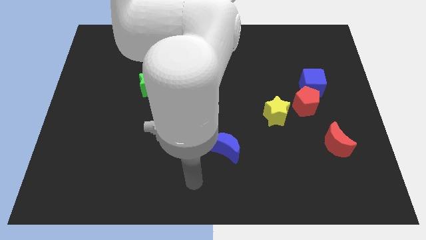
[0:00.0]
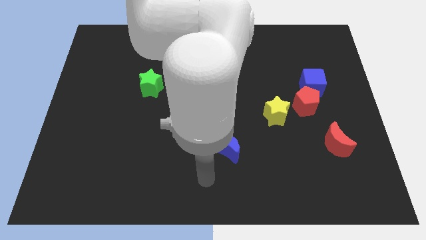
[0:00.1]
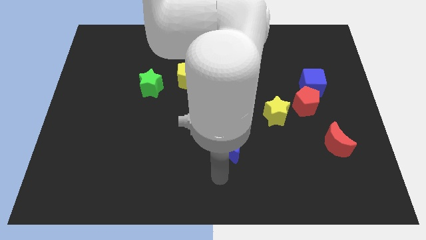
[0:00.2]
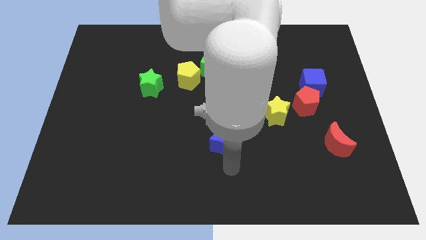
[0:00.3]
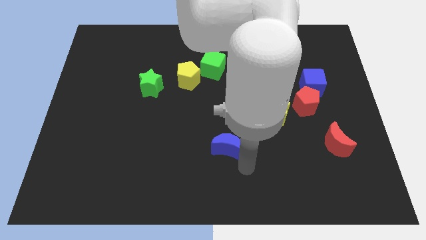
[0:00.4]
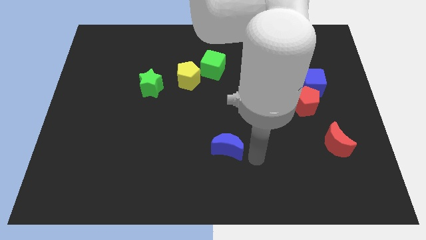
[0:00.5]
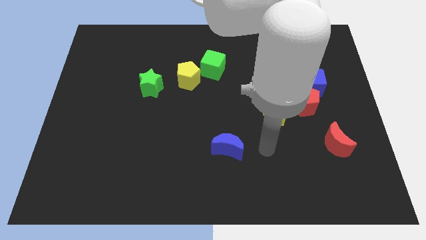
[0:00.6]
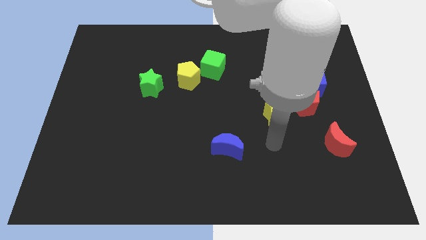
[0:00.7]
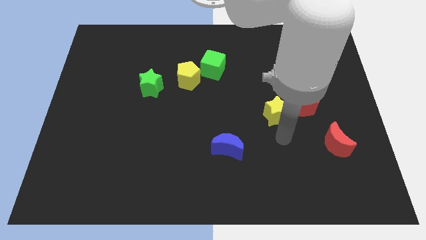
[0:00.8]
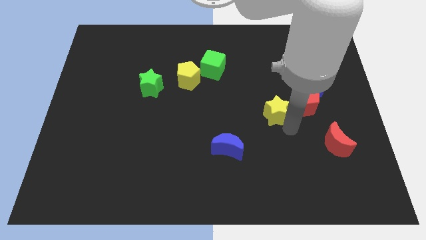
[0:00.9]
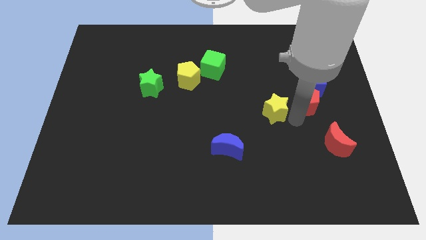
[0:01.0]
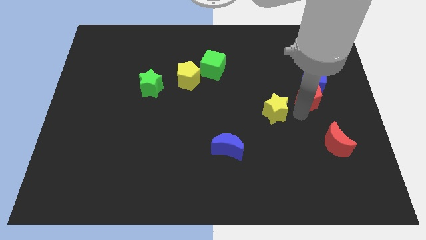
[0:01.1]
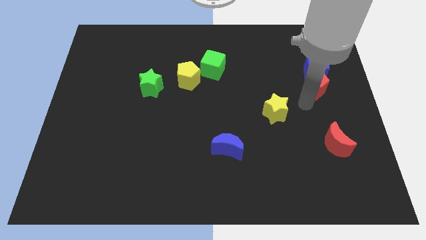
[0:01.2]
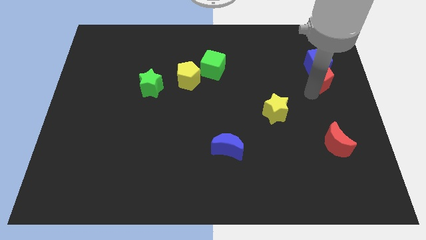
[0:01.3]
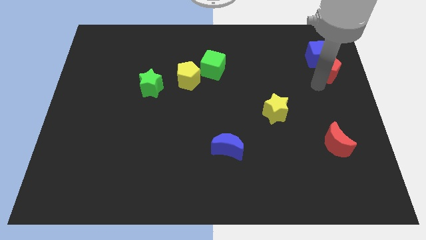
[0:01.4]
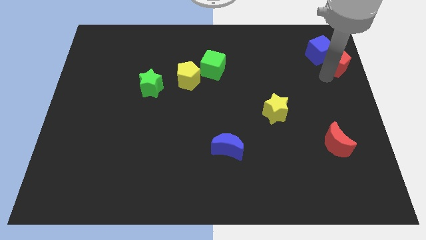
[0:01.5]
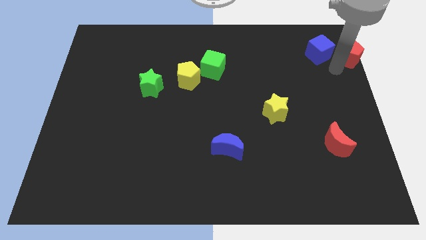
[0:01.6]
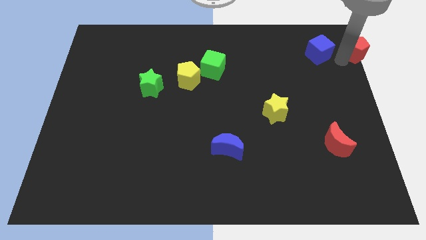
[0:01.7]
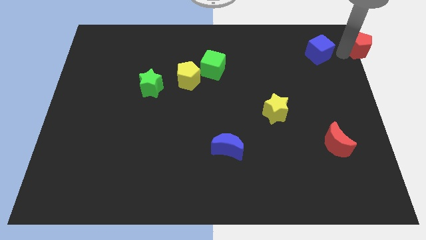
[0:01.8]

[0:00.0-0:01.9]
move the blue cube away from the red pentagon

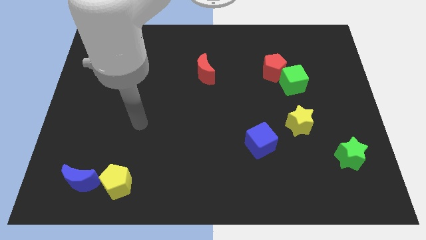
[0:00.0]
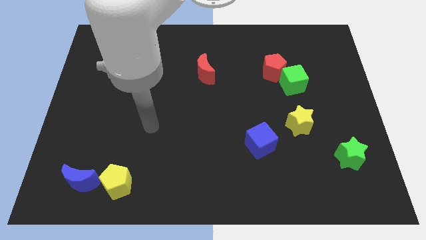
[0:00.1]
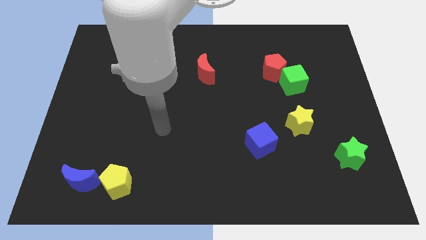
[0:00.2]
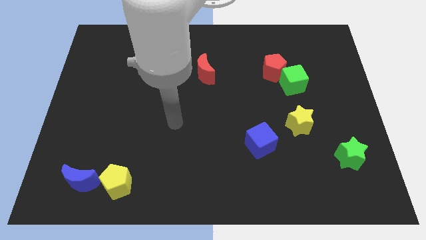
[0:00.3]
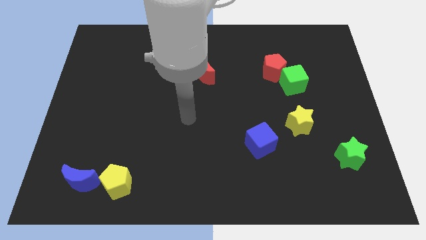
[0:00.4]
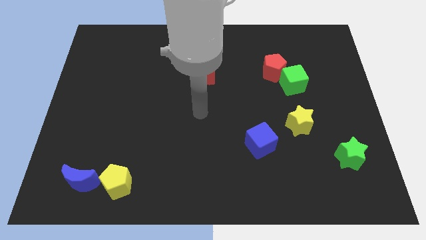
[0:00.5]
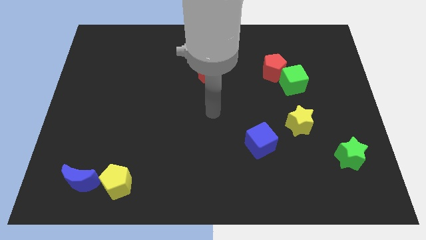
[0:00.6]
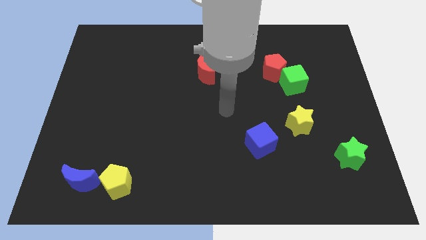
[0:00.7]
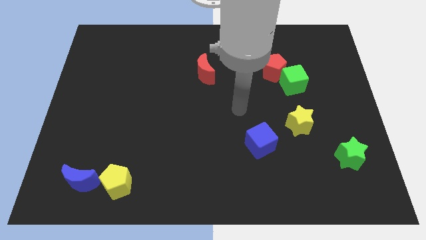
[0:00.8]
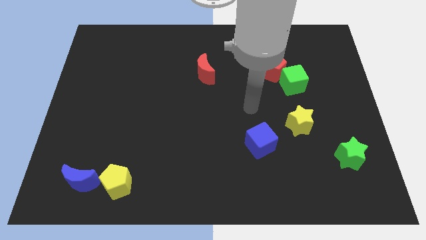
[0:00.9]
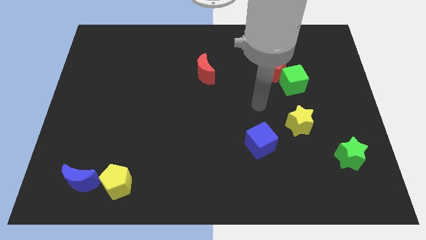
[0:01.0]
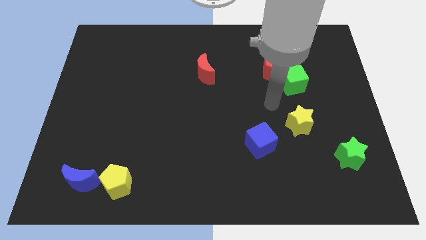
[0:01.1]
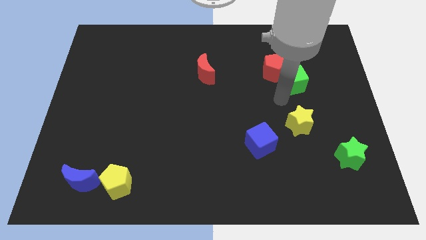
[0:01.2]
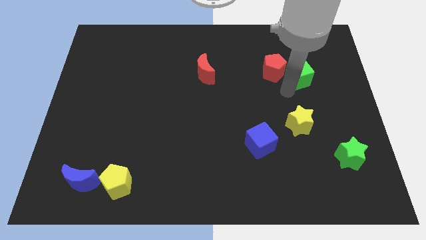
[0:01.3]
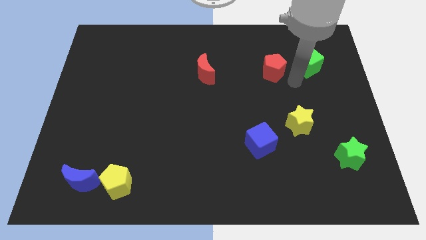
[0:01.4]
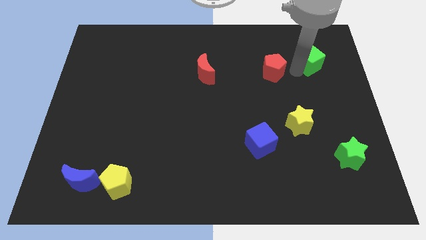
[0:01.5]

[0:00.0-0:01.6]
move the red pentagon away from the green cube

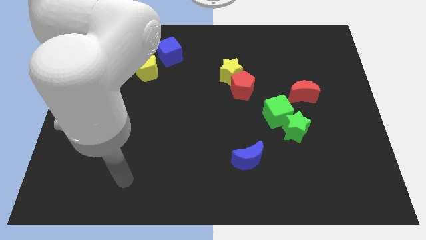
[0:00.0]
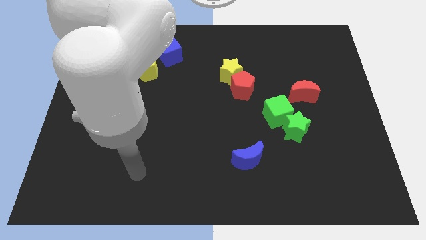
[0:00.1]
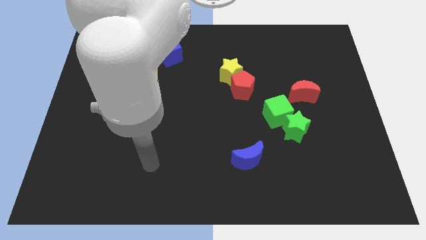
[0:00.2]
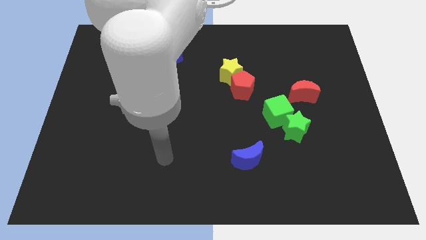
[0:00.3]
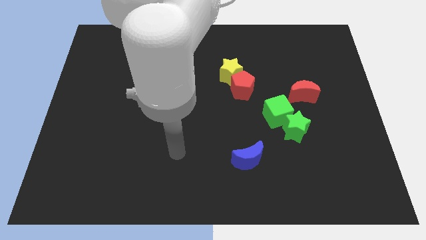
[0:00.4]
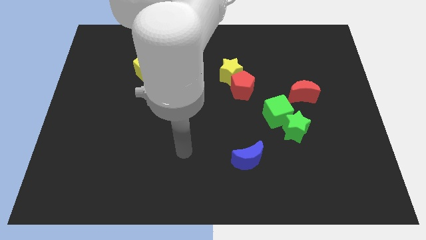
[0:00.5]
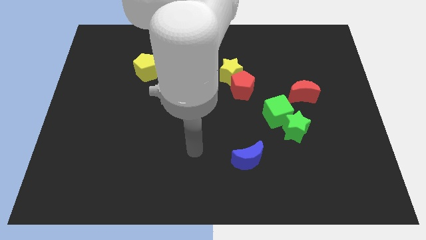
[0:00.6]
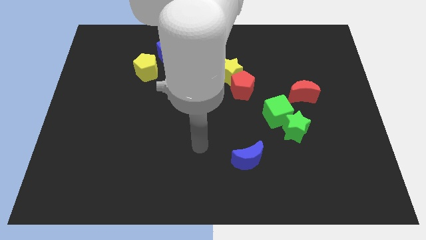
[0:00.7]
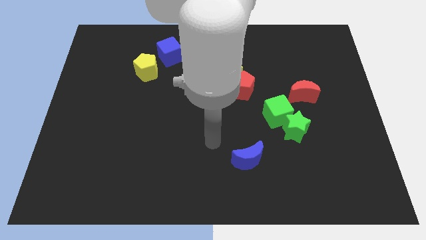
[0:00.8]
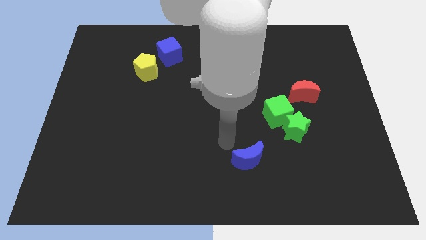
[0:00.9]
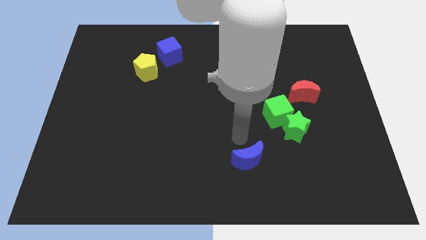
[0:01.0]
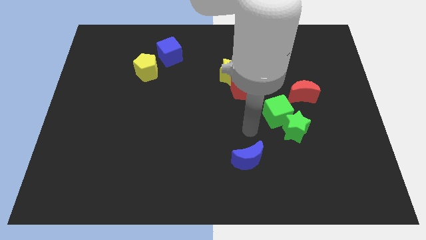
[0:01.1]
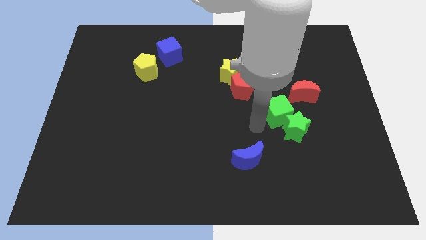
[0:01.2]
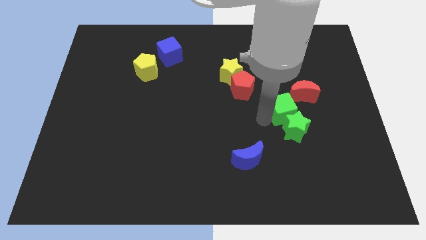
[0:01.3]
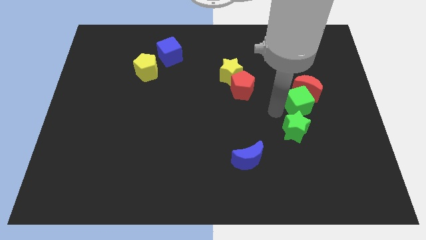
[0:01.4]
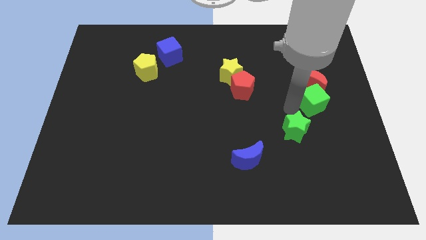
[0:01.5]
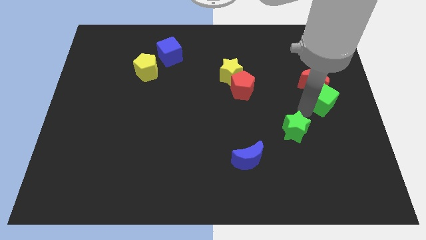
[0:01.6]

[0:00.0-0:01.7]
pull the green star apart from the green cube

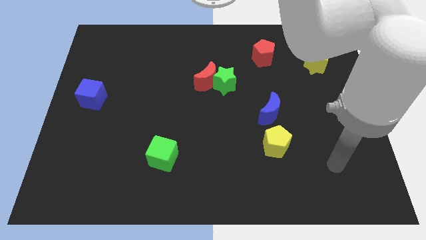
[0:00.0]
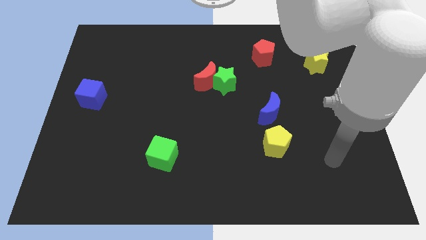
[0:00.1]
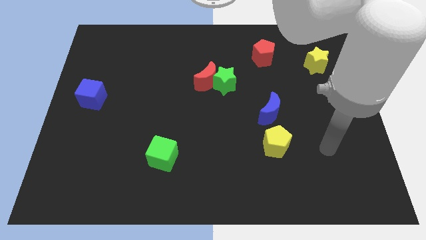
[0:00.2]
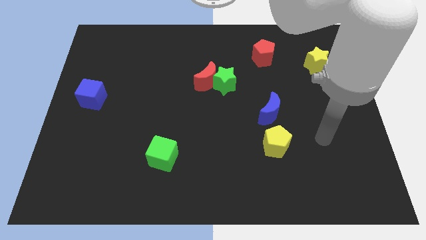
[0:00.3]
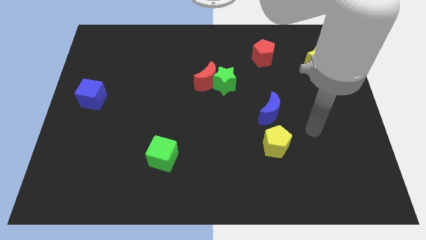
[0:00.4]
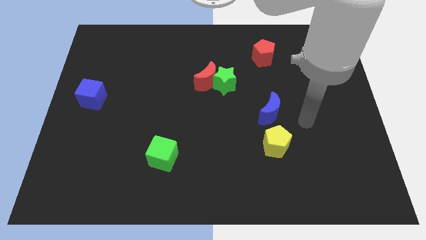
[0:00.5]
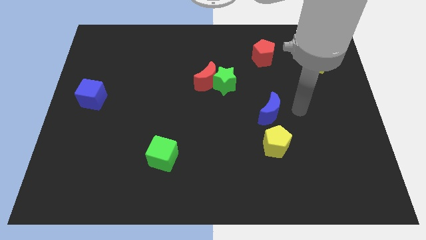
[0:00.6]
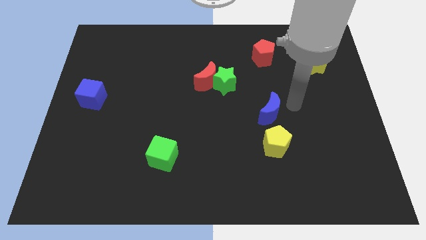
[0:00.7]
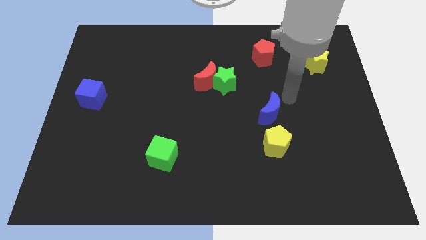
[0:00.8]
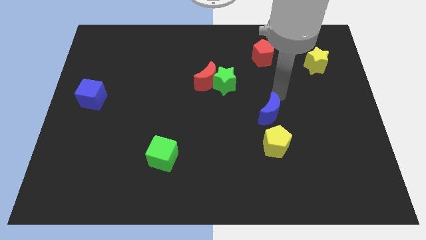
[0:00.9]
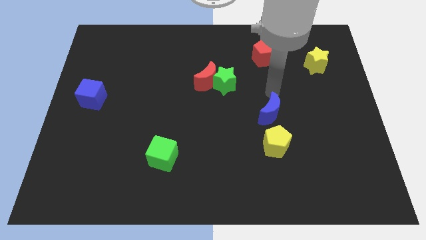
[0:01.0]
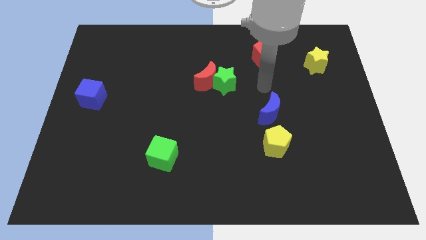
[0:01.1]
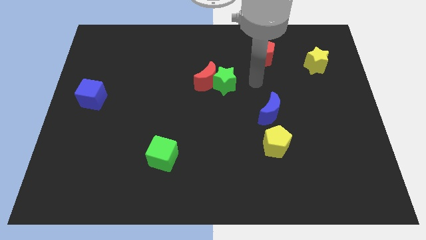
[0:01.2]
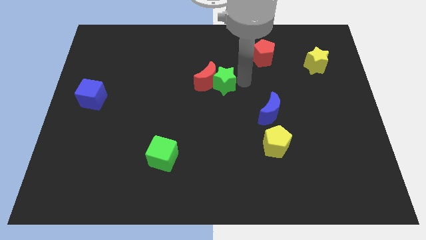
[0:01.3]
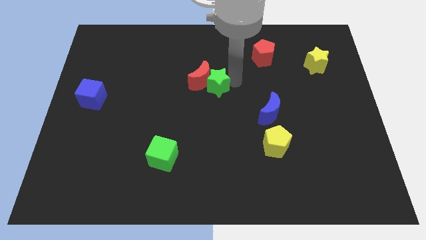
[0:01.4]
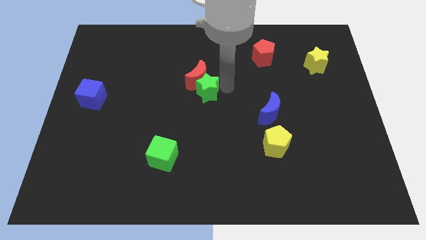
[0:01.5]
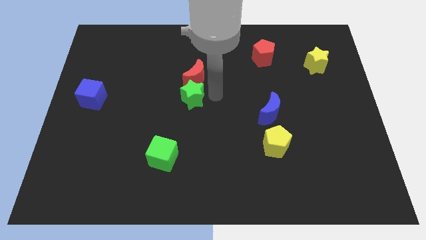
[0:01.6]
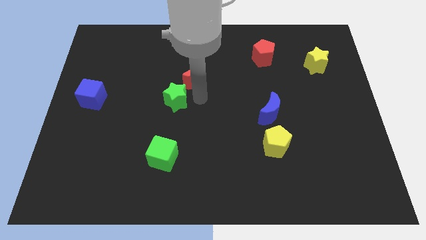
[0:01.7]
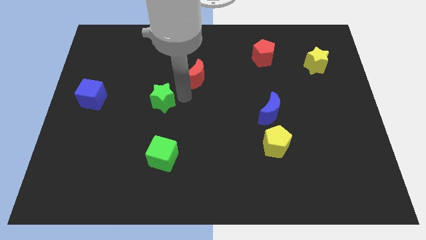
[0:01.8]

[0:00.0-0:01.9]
separate the red moon from the green star

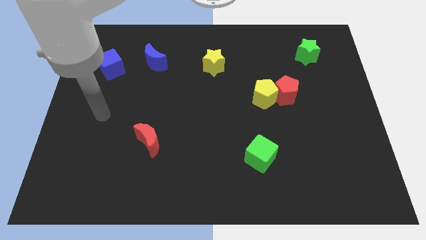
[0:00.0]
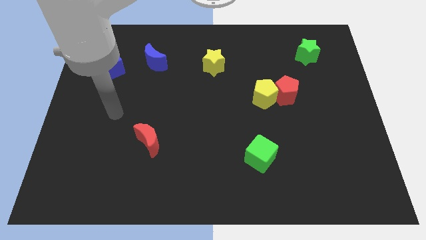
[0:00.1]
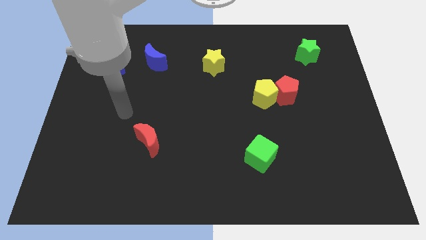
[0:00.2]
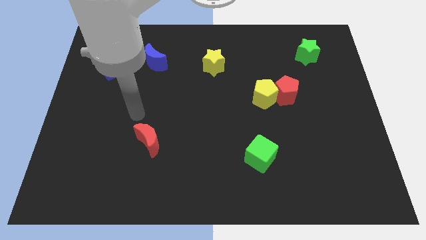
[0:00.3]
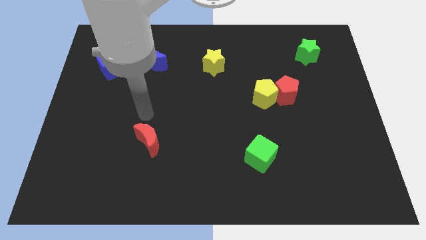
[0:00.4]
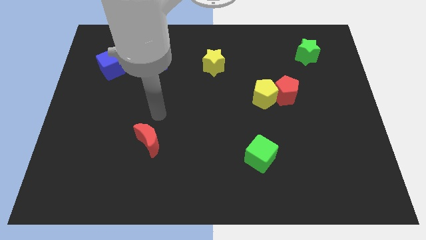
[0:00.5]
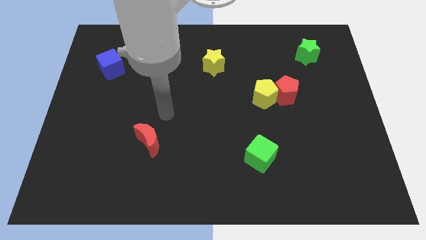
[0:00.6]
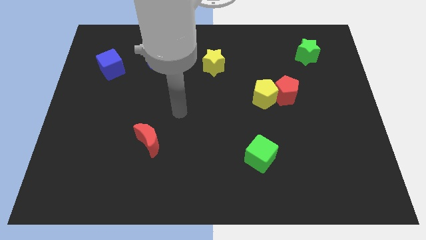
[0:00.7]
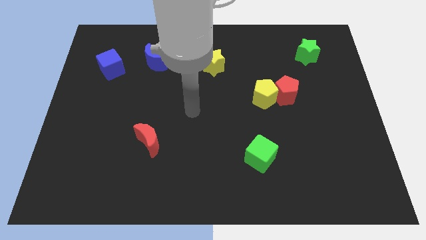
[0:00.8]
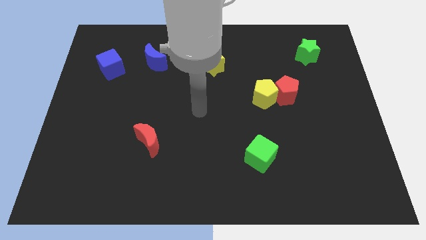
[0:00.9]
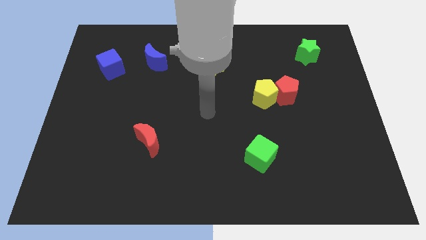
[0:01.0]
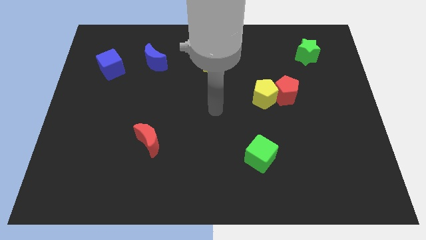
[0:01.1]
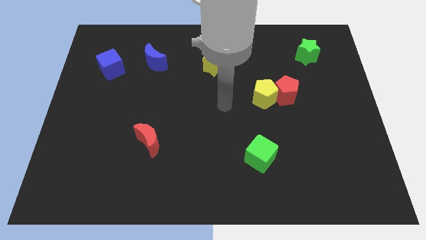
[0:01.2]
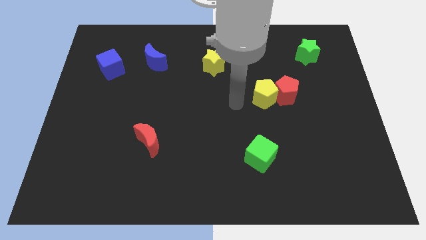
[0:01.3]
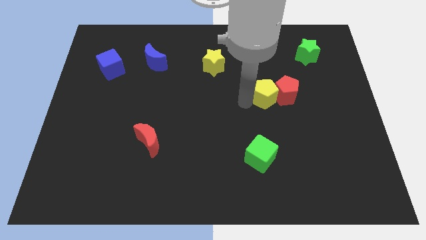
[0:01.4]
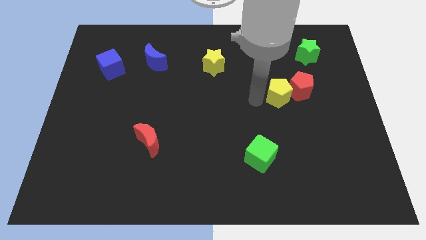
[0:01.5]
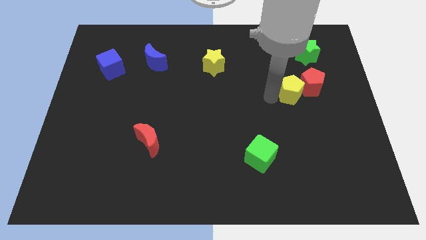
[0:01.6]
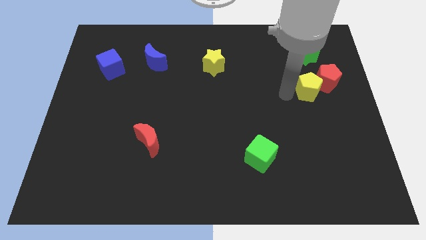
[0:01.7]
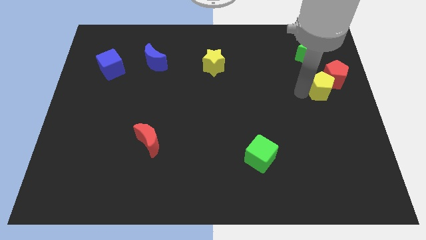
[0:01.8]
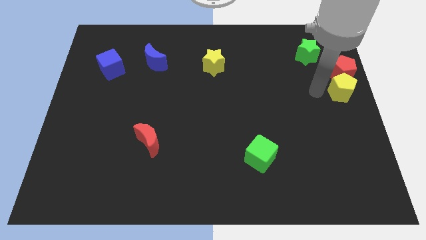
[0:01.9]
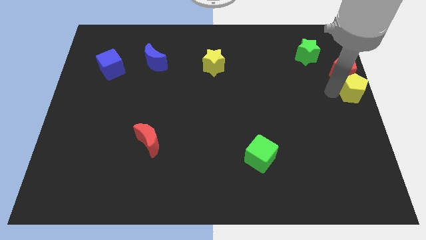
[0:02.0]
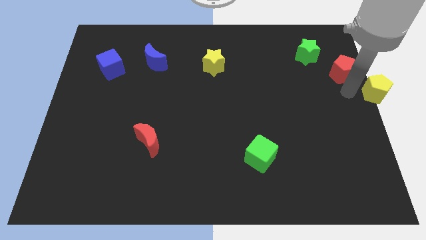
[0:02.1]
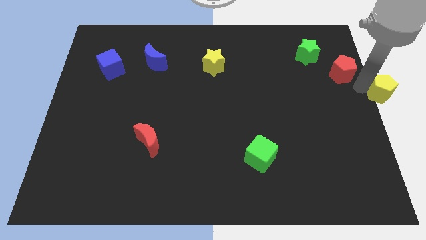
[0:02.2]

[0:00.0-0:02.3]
pull the red pentagon apart from the yellow pentagon
